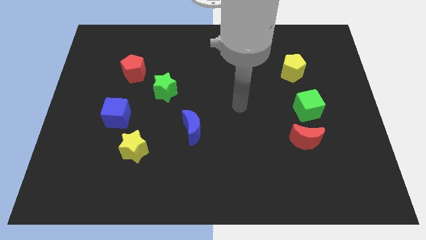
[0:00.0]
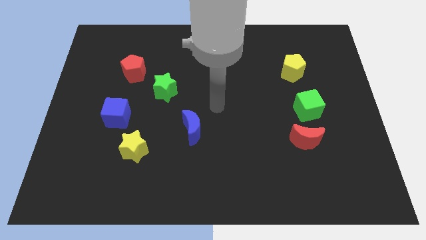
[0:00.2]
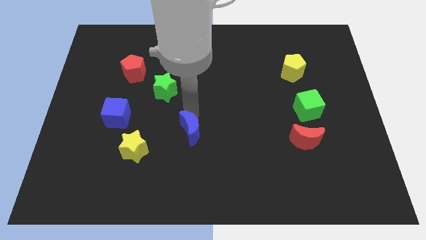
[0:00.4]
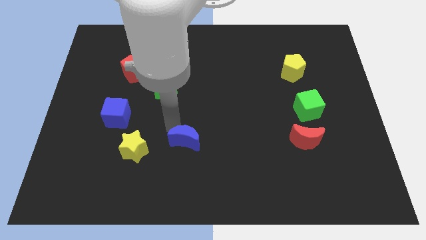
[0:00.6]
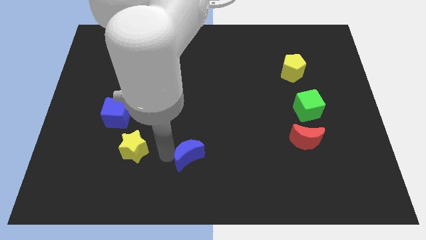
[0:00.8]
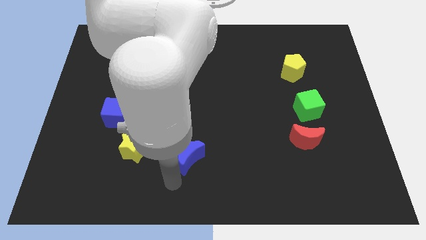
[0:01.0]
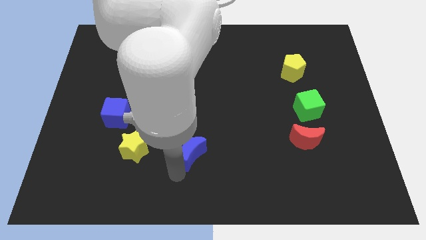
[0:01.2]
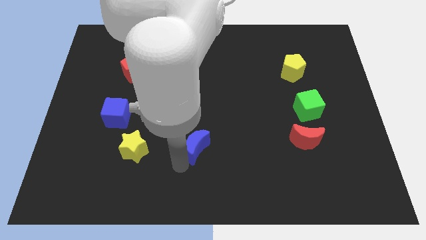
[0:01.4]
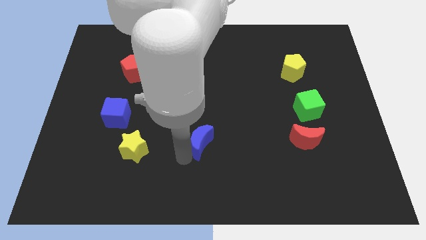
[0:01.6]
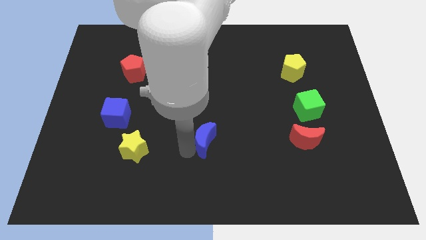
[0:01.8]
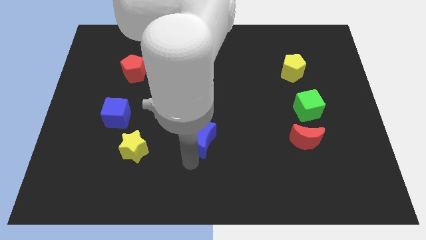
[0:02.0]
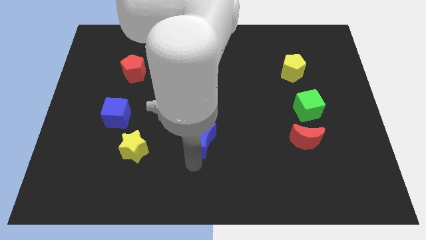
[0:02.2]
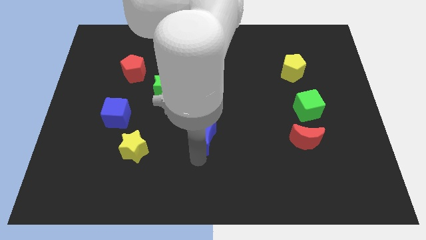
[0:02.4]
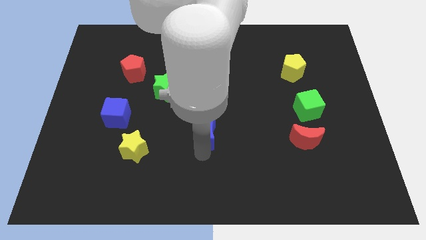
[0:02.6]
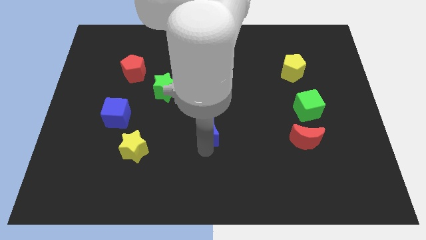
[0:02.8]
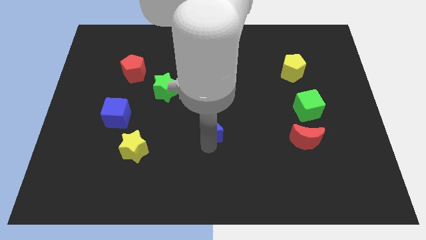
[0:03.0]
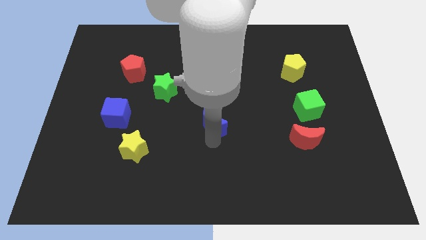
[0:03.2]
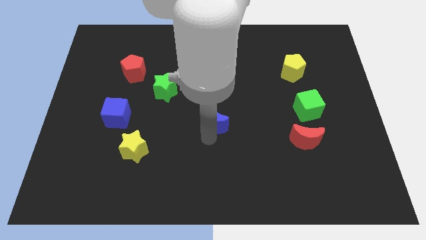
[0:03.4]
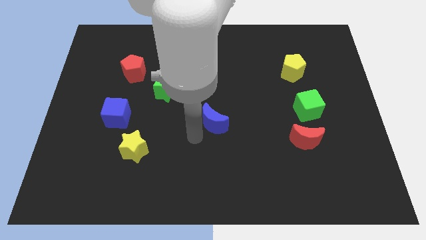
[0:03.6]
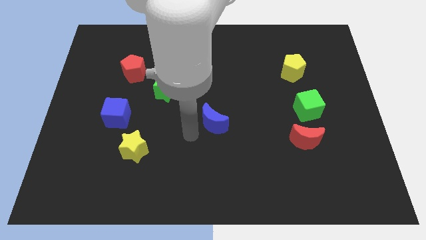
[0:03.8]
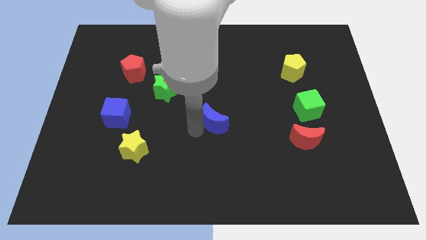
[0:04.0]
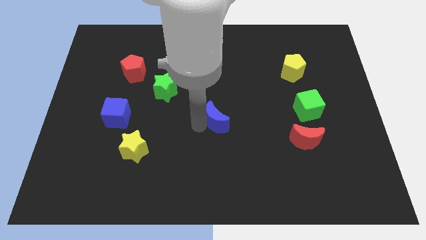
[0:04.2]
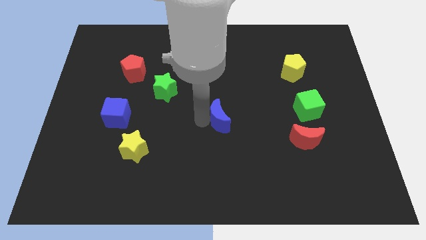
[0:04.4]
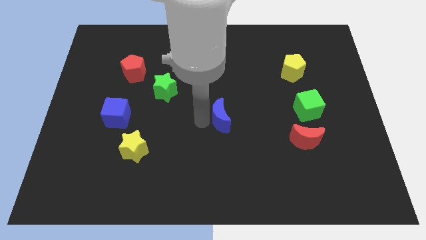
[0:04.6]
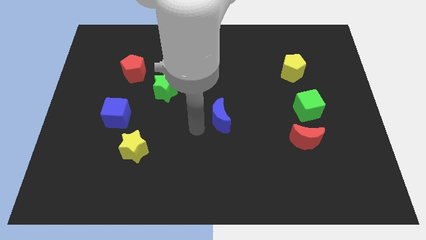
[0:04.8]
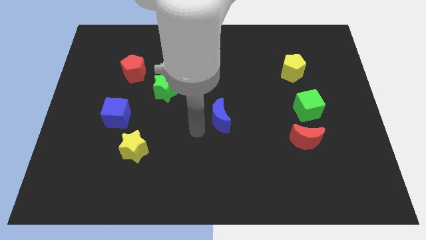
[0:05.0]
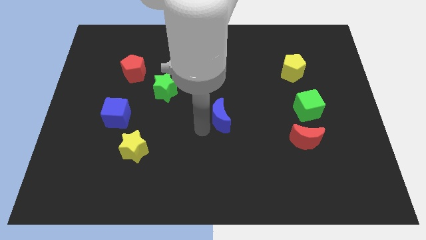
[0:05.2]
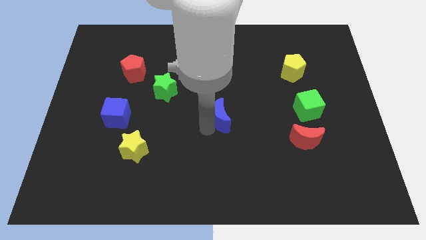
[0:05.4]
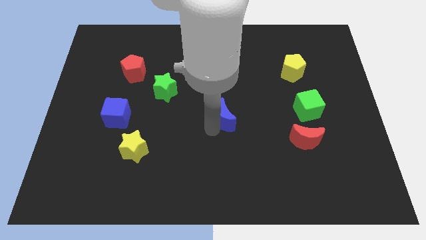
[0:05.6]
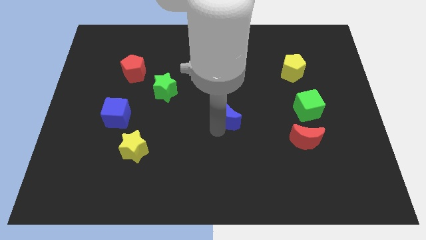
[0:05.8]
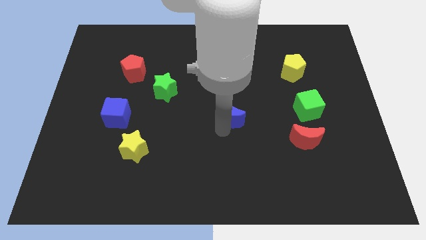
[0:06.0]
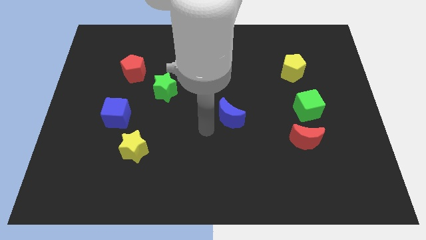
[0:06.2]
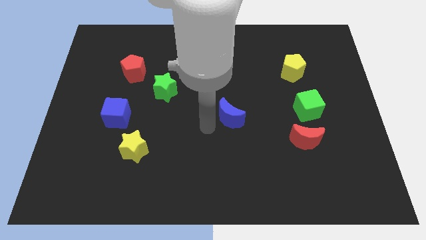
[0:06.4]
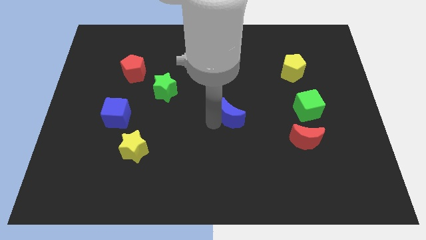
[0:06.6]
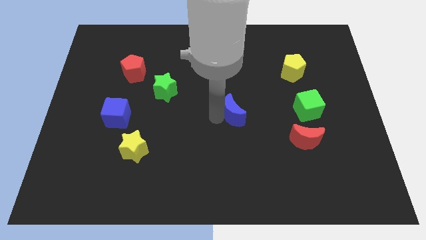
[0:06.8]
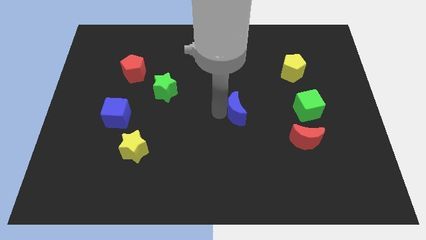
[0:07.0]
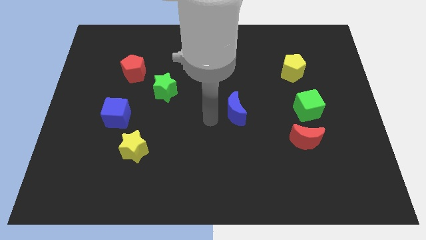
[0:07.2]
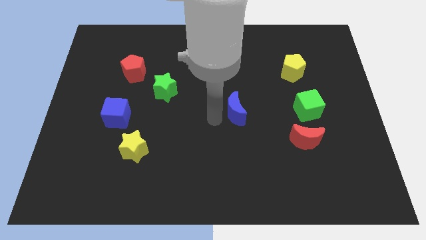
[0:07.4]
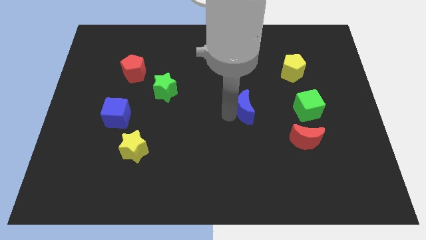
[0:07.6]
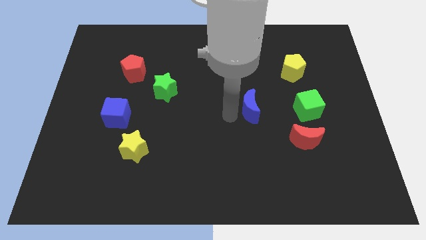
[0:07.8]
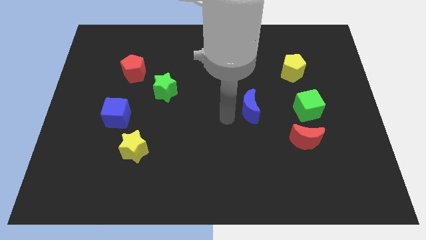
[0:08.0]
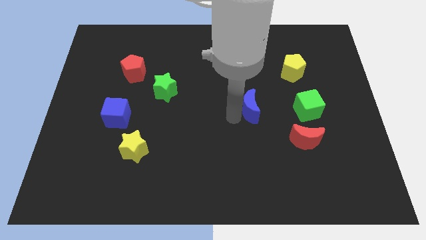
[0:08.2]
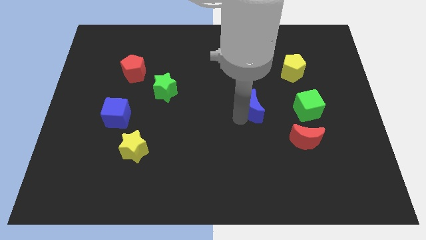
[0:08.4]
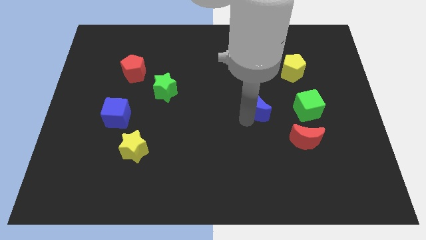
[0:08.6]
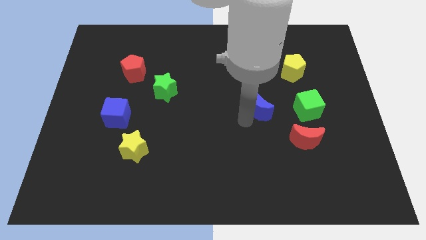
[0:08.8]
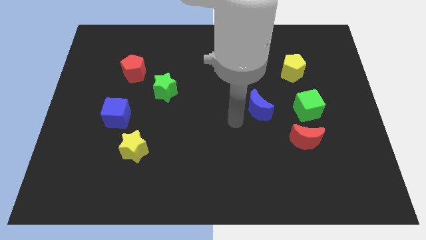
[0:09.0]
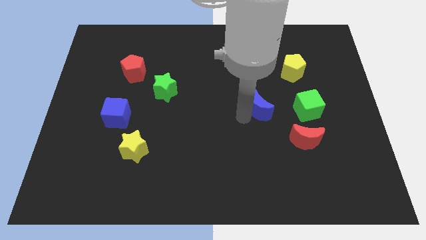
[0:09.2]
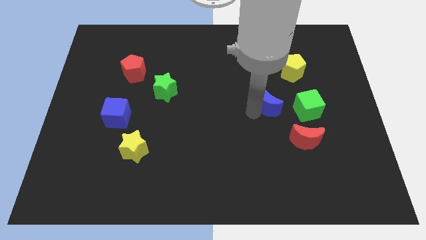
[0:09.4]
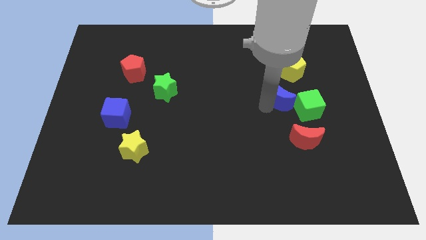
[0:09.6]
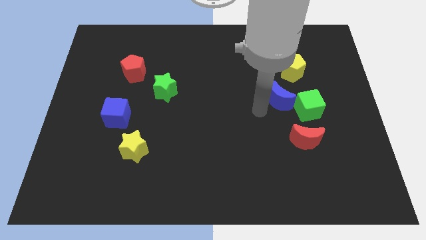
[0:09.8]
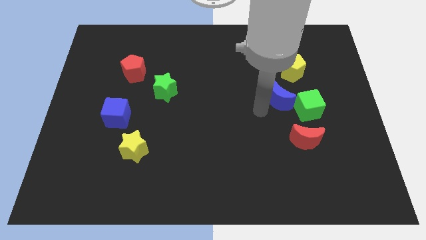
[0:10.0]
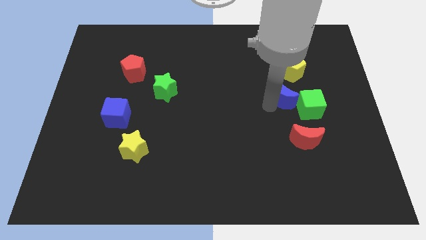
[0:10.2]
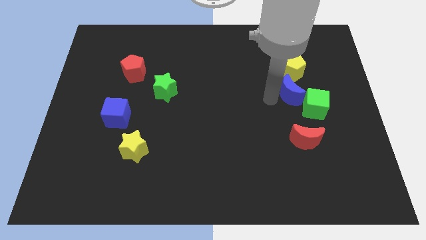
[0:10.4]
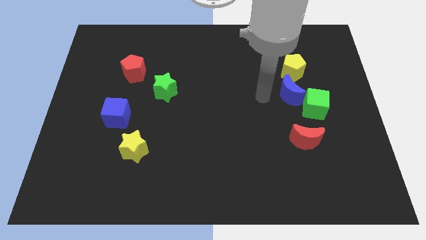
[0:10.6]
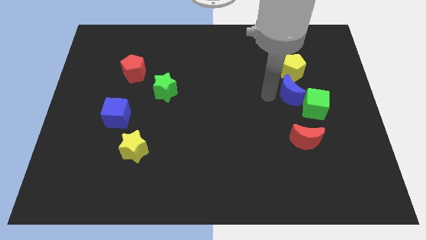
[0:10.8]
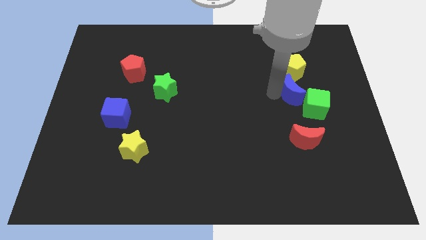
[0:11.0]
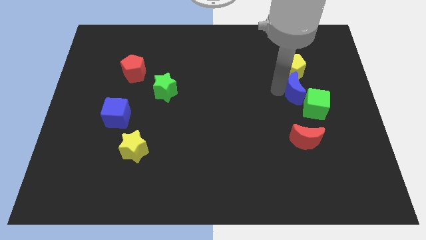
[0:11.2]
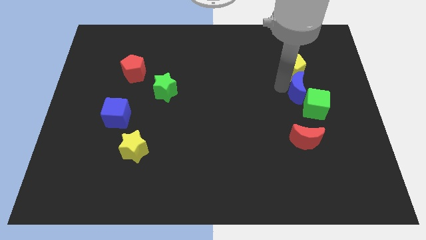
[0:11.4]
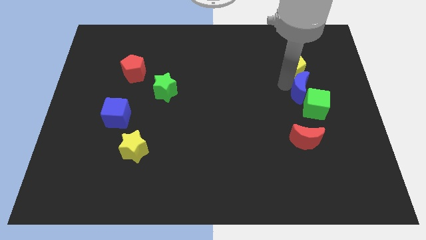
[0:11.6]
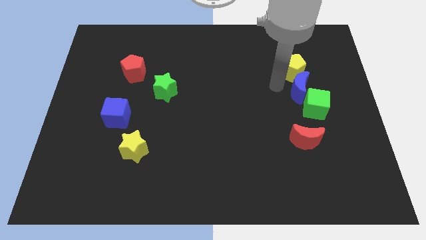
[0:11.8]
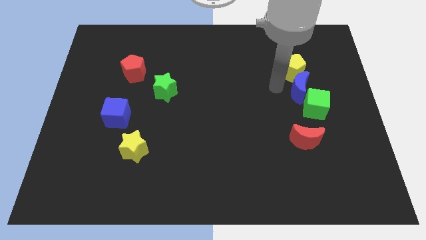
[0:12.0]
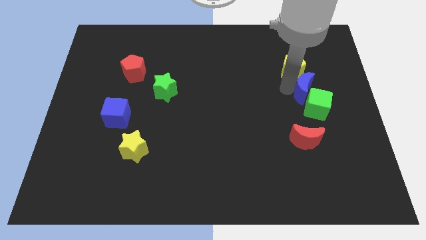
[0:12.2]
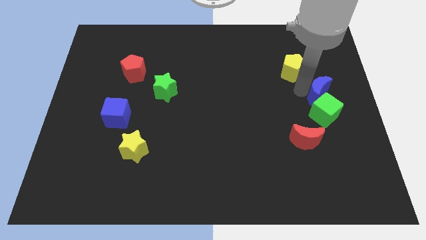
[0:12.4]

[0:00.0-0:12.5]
move the blue moon to the center right
